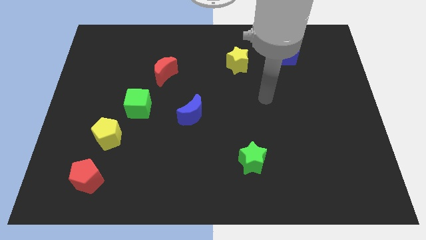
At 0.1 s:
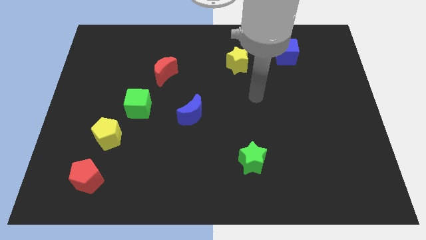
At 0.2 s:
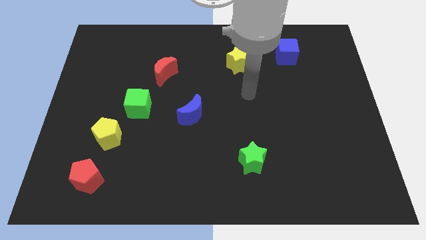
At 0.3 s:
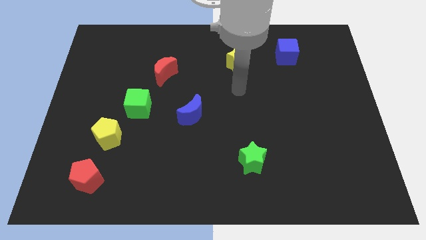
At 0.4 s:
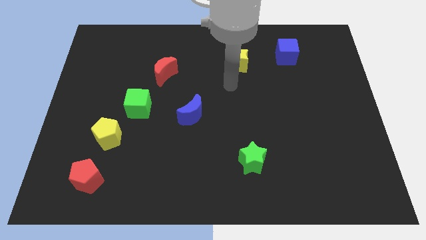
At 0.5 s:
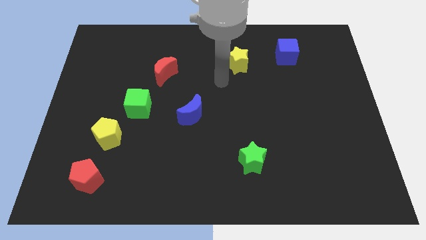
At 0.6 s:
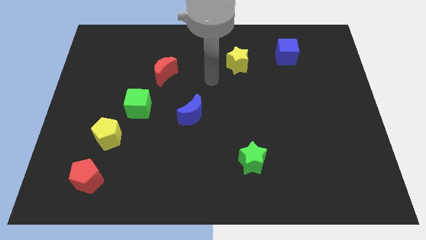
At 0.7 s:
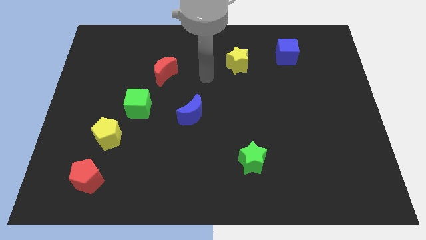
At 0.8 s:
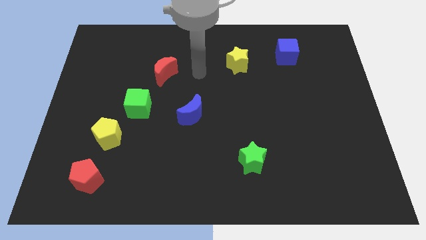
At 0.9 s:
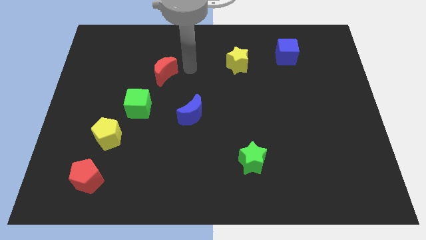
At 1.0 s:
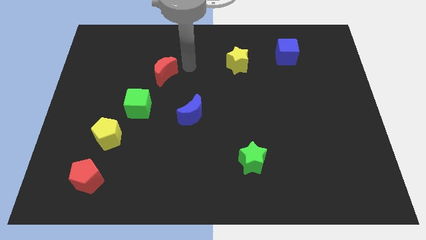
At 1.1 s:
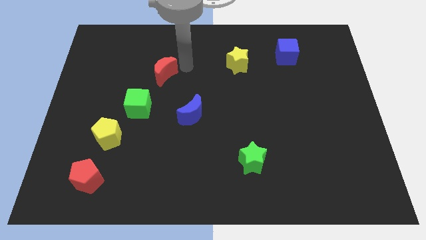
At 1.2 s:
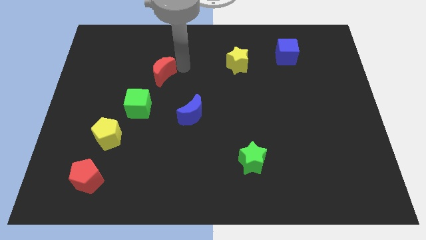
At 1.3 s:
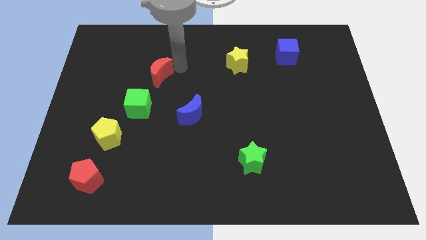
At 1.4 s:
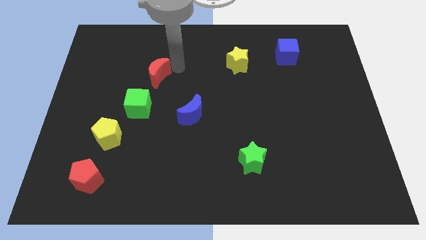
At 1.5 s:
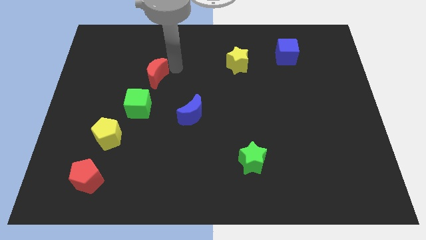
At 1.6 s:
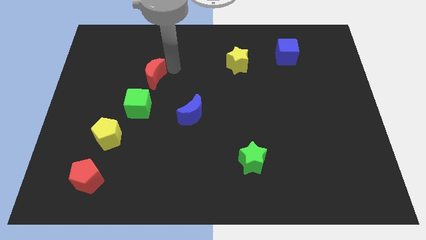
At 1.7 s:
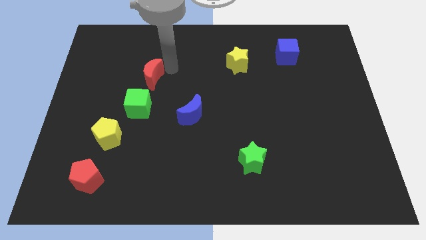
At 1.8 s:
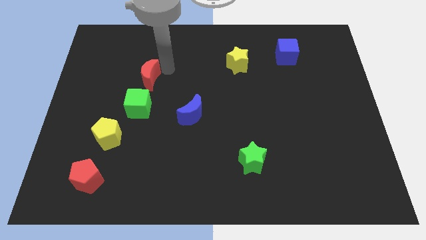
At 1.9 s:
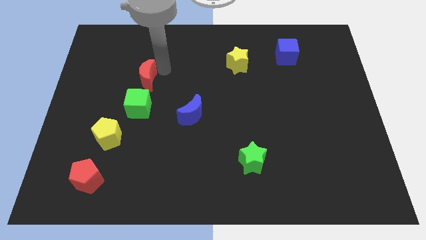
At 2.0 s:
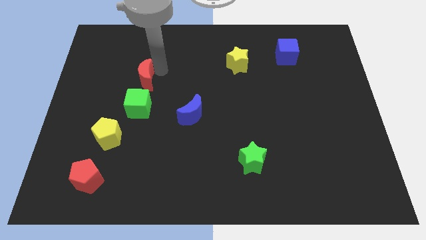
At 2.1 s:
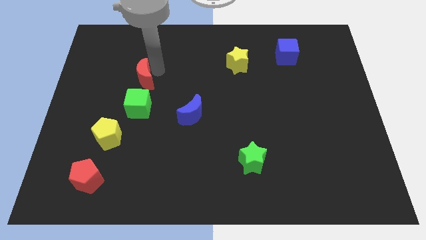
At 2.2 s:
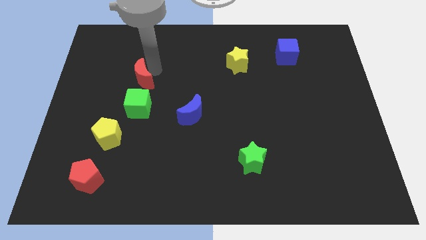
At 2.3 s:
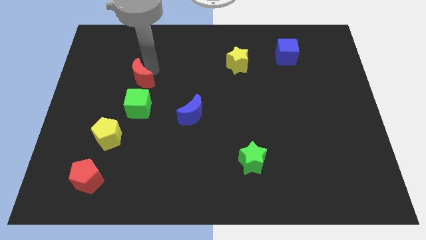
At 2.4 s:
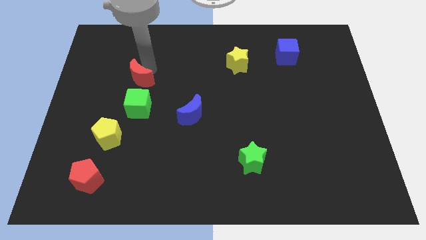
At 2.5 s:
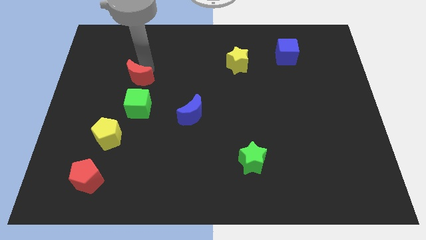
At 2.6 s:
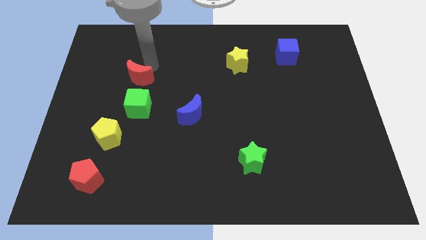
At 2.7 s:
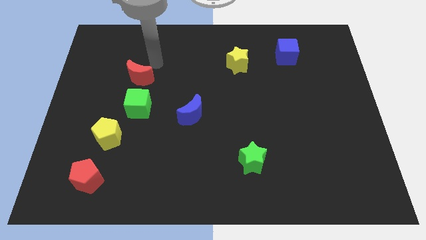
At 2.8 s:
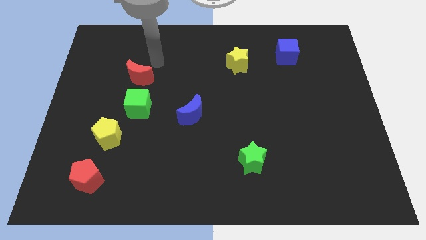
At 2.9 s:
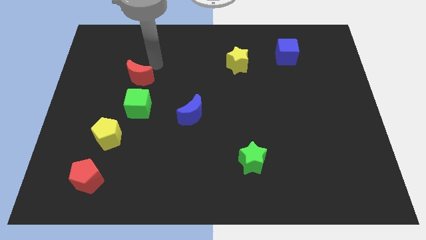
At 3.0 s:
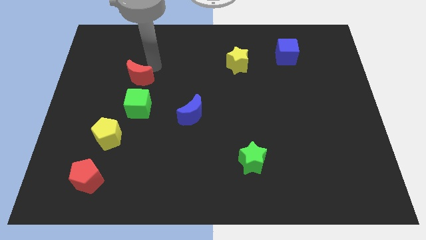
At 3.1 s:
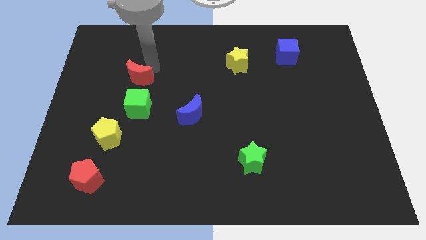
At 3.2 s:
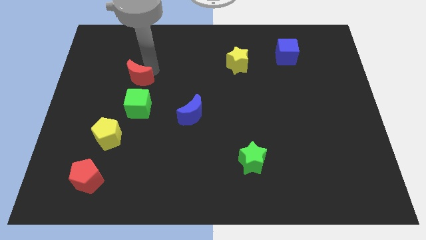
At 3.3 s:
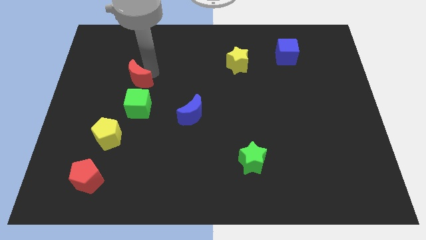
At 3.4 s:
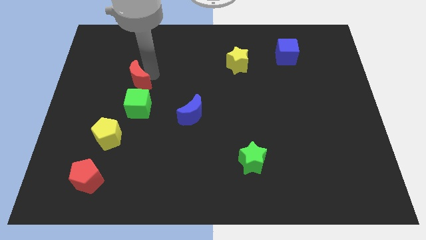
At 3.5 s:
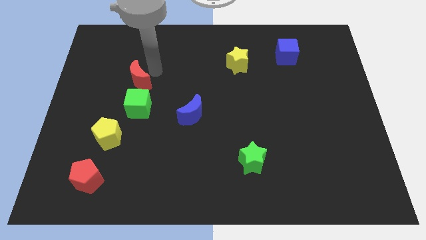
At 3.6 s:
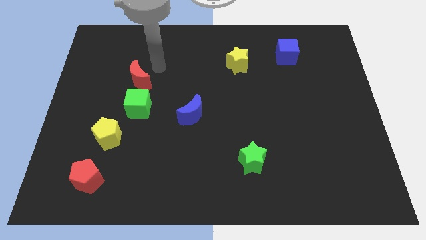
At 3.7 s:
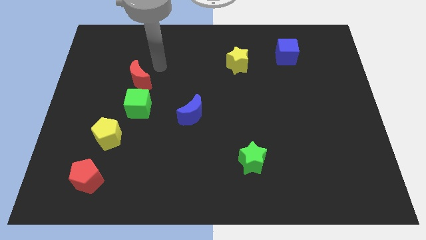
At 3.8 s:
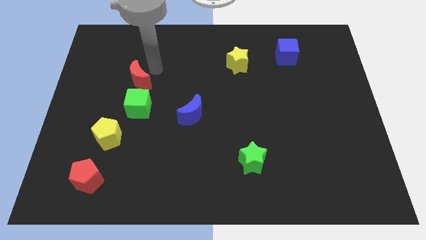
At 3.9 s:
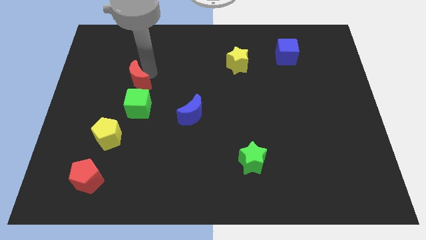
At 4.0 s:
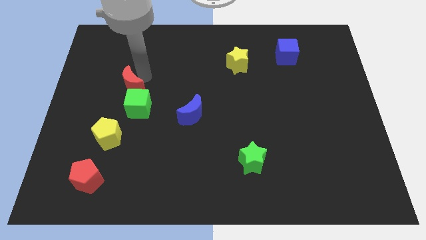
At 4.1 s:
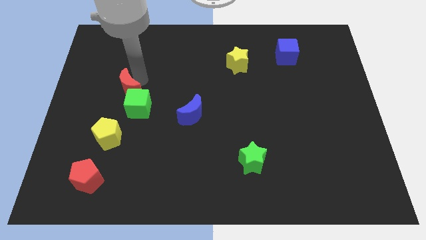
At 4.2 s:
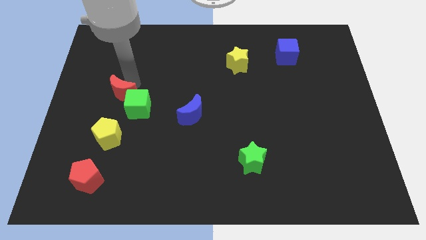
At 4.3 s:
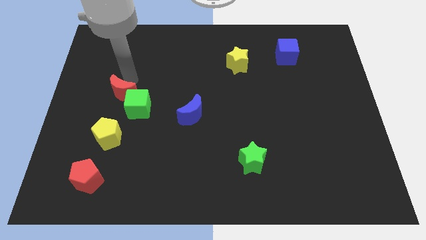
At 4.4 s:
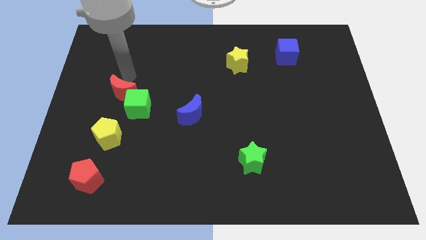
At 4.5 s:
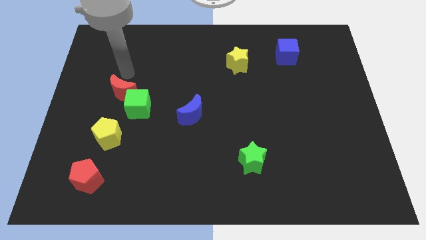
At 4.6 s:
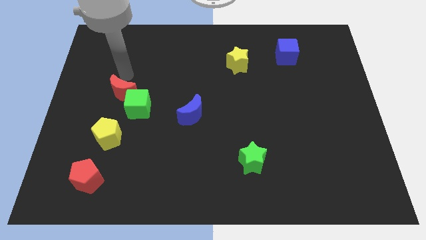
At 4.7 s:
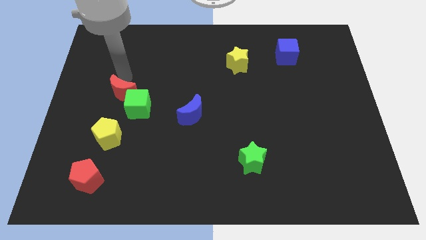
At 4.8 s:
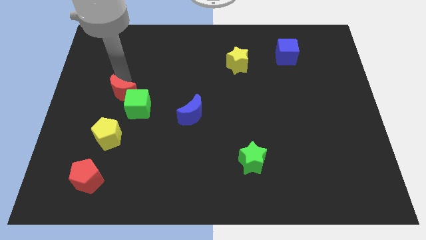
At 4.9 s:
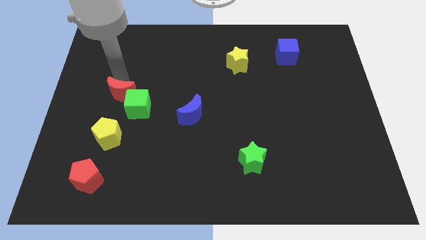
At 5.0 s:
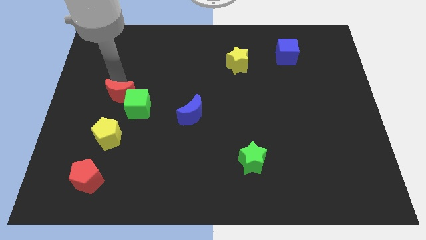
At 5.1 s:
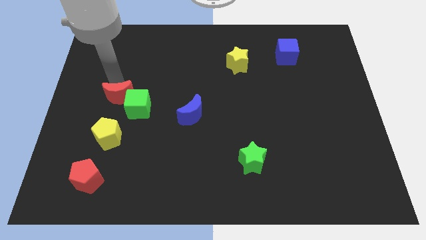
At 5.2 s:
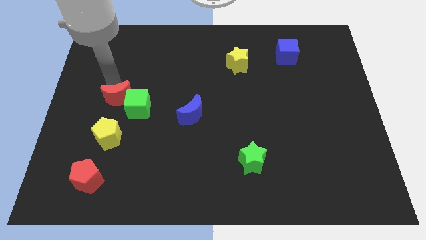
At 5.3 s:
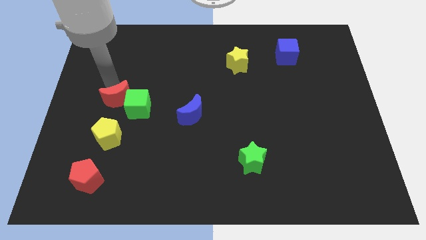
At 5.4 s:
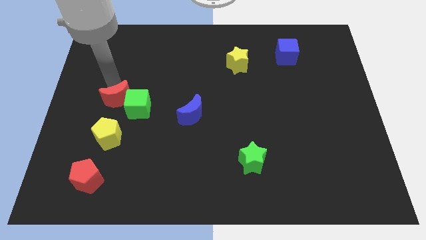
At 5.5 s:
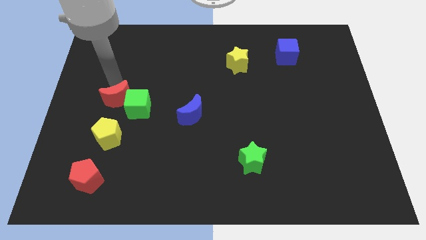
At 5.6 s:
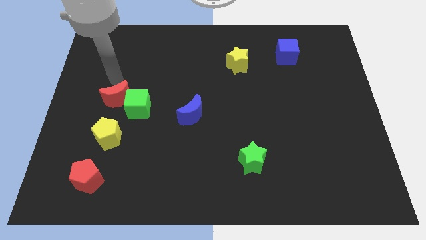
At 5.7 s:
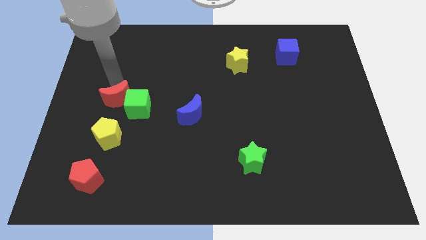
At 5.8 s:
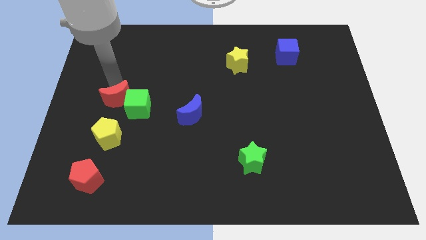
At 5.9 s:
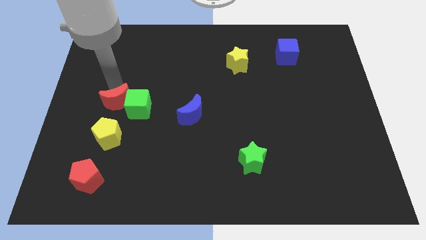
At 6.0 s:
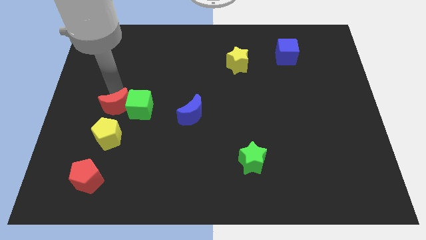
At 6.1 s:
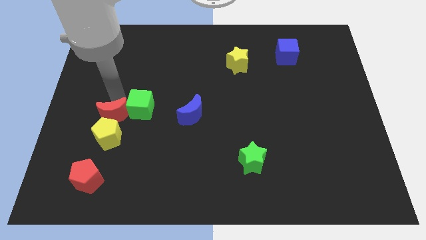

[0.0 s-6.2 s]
move the red moon to the yellow pentagon

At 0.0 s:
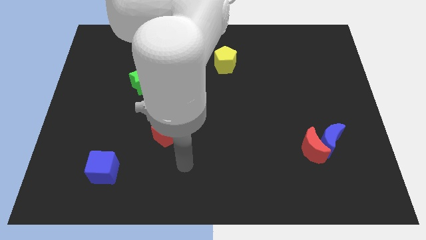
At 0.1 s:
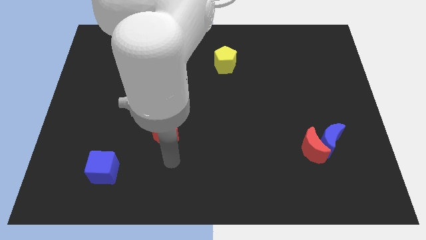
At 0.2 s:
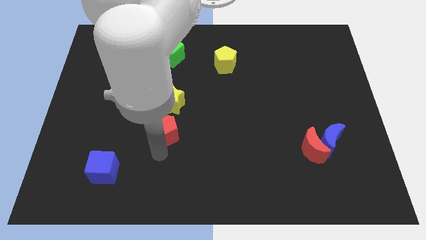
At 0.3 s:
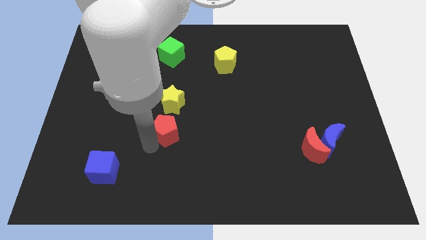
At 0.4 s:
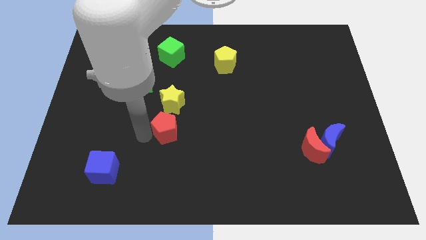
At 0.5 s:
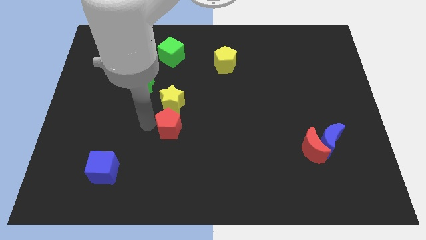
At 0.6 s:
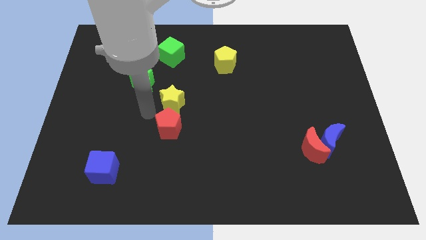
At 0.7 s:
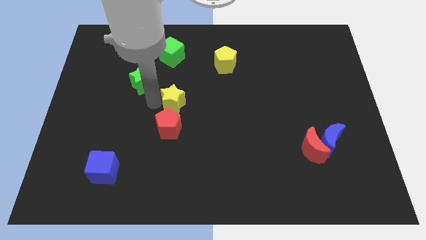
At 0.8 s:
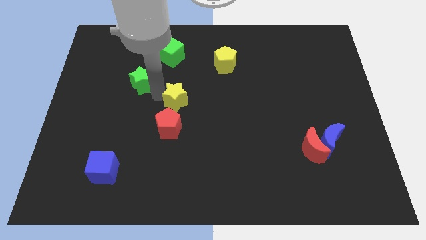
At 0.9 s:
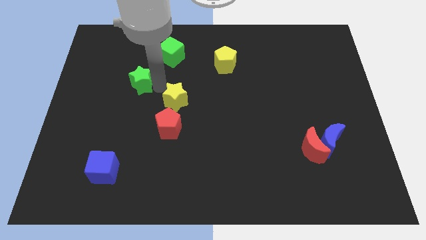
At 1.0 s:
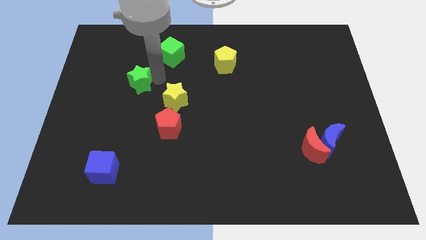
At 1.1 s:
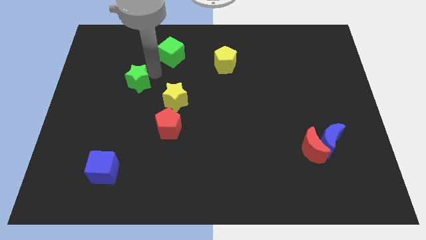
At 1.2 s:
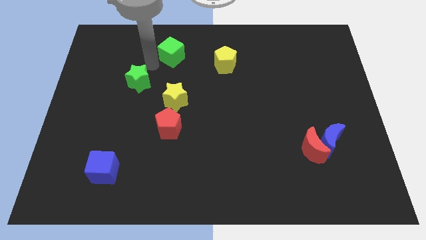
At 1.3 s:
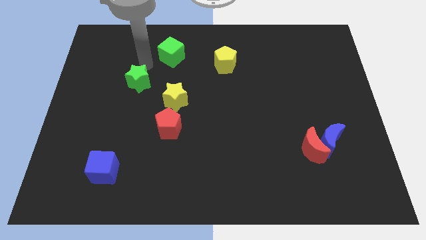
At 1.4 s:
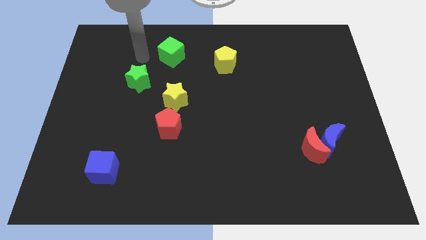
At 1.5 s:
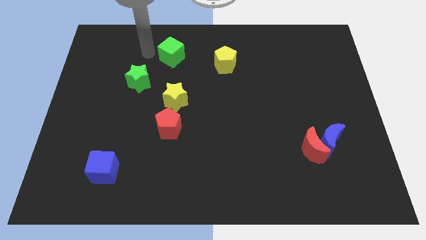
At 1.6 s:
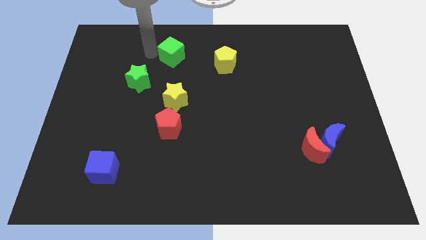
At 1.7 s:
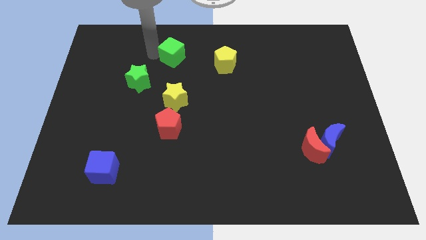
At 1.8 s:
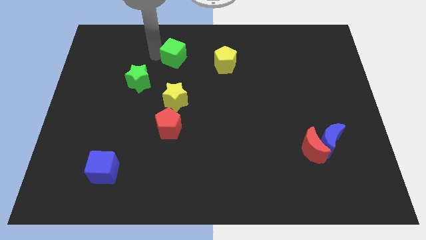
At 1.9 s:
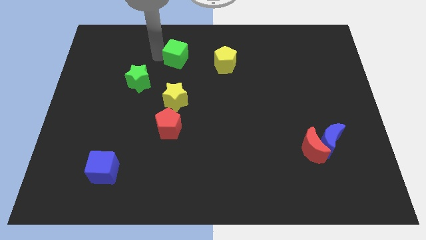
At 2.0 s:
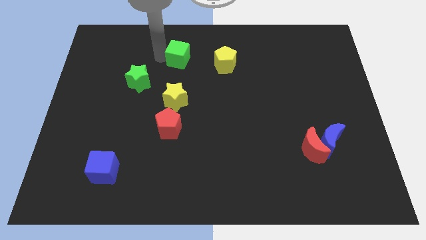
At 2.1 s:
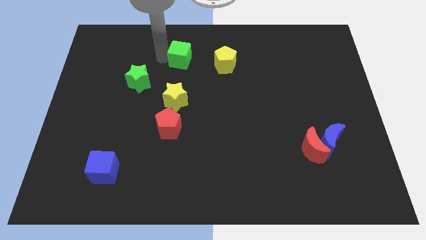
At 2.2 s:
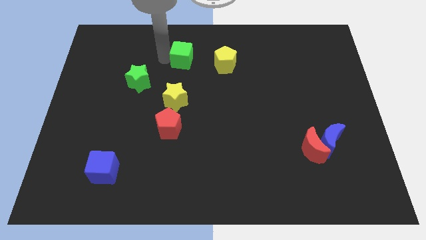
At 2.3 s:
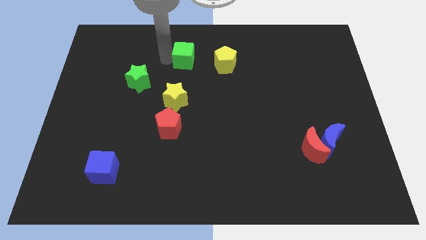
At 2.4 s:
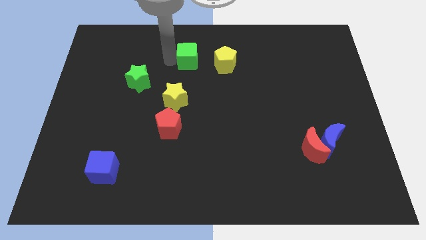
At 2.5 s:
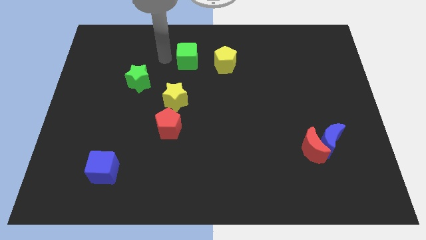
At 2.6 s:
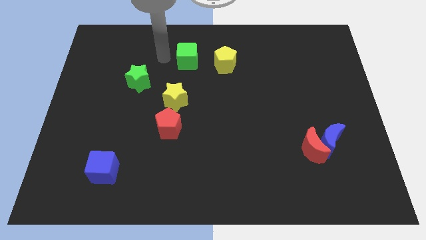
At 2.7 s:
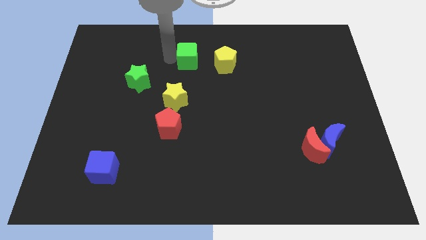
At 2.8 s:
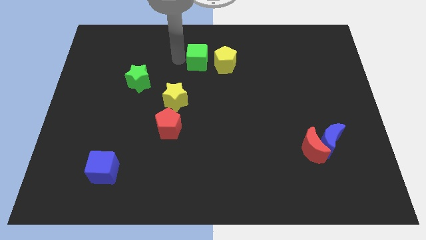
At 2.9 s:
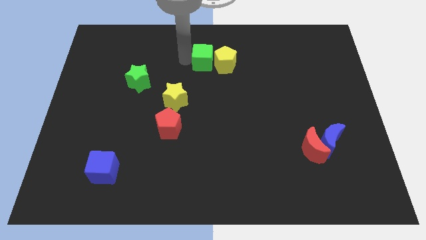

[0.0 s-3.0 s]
put the green cube close to the yellow pentagon
